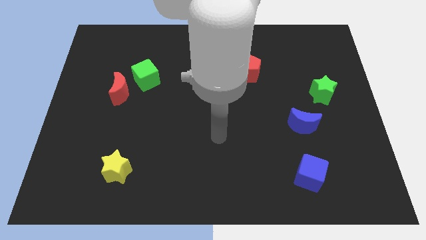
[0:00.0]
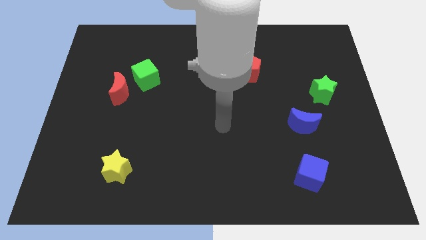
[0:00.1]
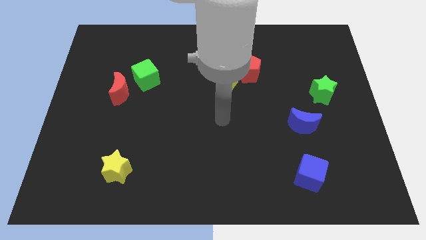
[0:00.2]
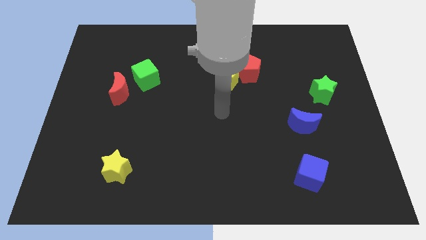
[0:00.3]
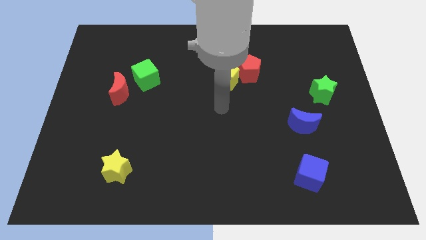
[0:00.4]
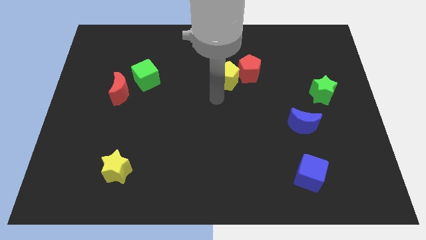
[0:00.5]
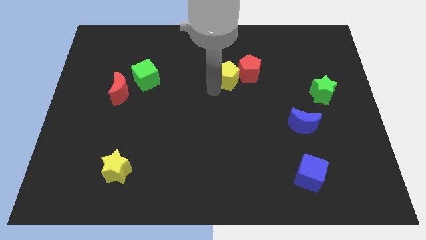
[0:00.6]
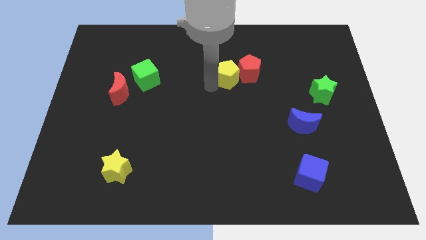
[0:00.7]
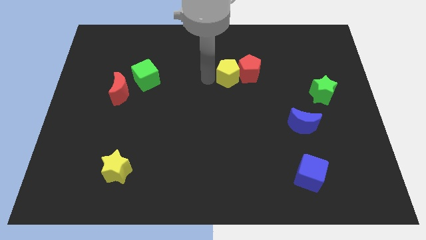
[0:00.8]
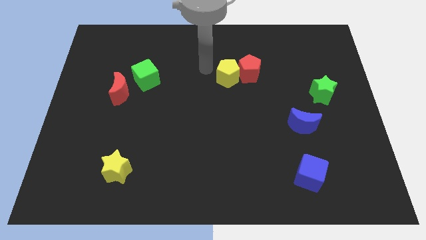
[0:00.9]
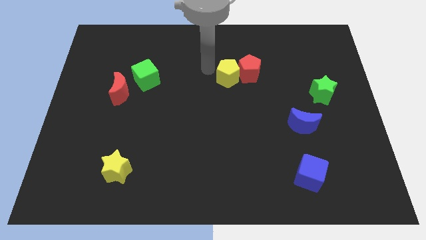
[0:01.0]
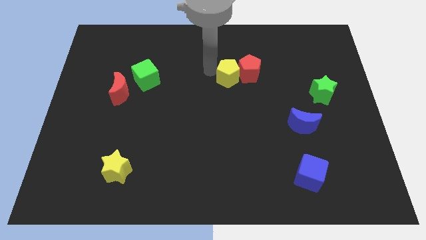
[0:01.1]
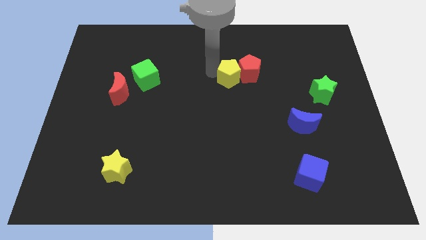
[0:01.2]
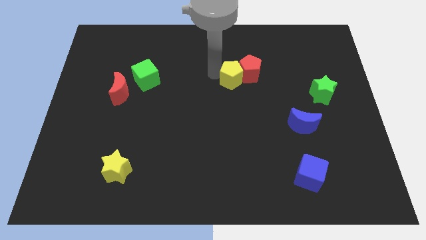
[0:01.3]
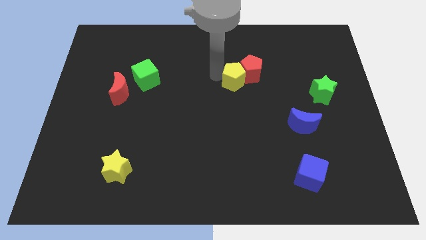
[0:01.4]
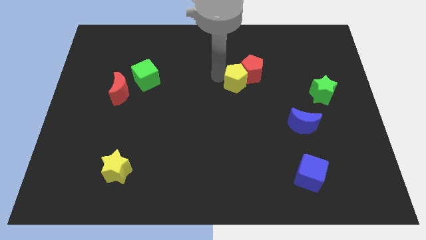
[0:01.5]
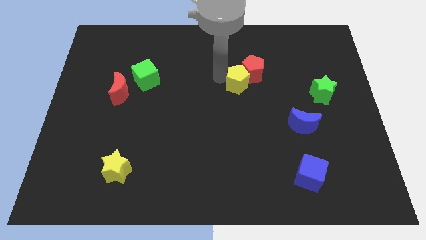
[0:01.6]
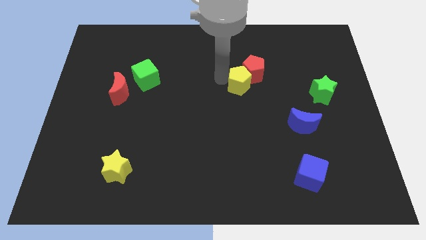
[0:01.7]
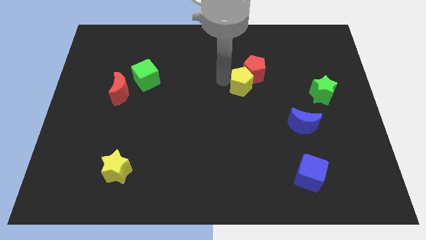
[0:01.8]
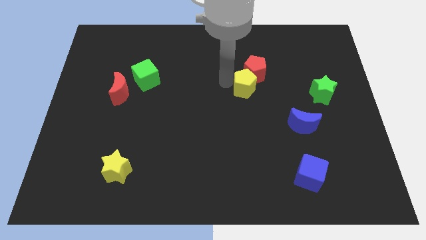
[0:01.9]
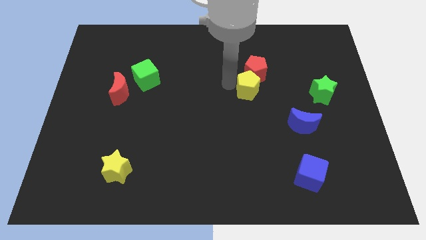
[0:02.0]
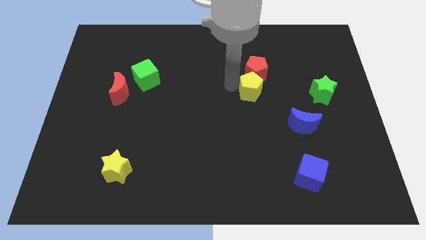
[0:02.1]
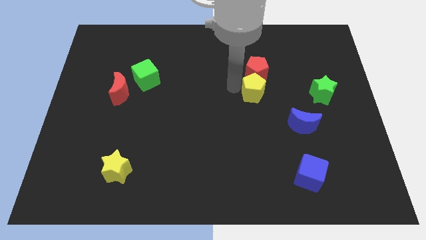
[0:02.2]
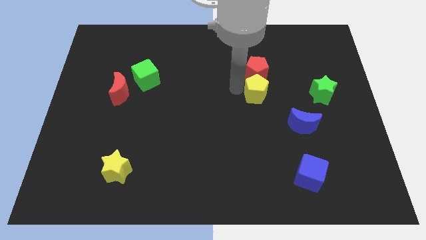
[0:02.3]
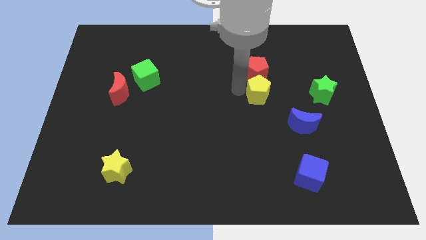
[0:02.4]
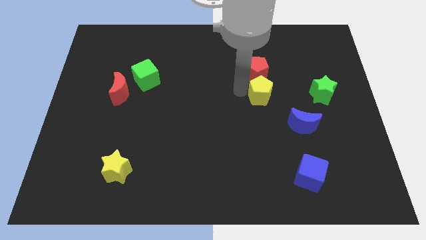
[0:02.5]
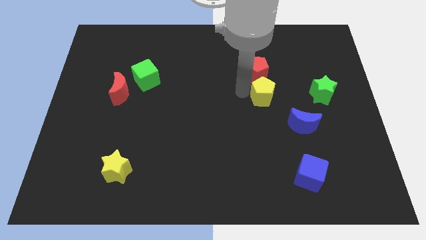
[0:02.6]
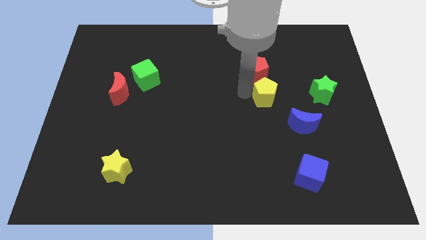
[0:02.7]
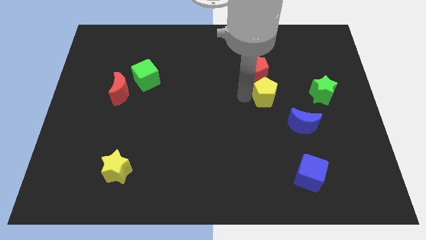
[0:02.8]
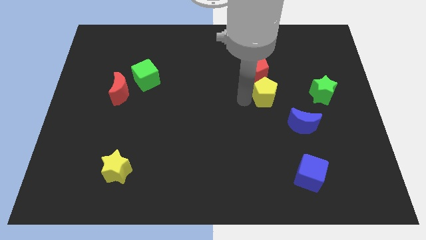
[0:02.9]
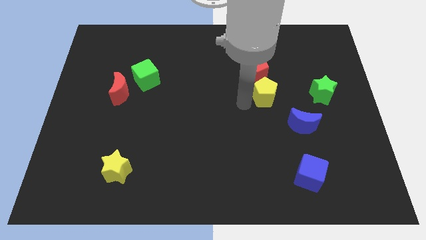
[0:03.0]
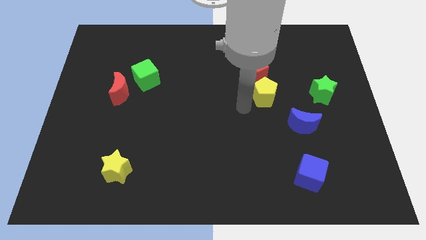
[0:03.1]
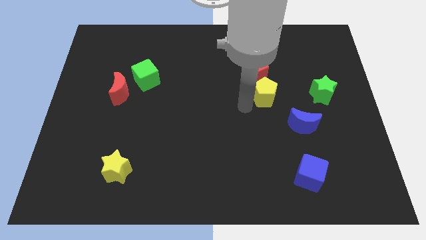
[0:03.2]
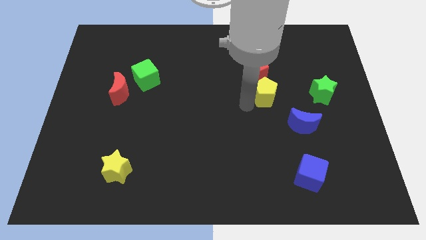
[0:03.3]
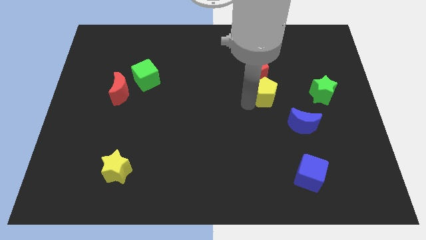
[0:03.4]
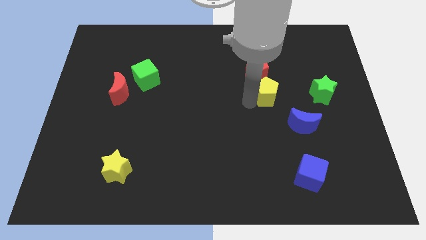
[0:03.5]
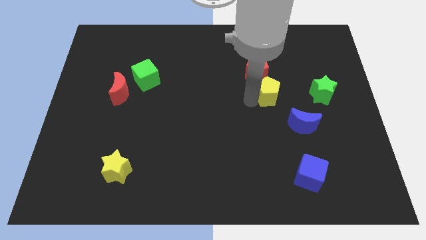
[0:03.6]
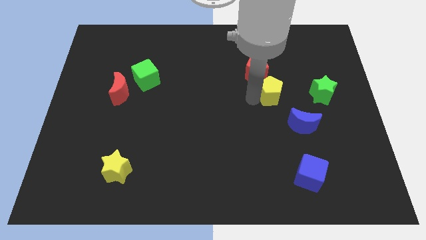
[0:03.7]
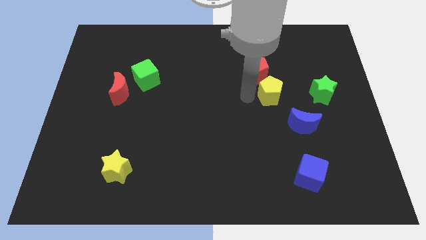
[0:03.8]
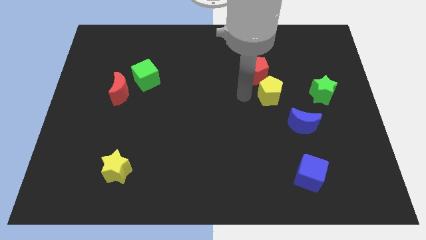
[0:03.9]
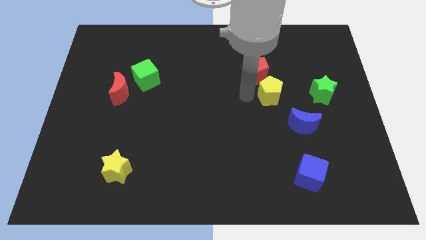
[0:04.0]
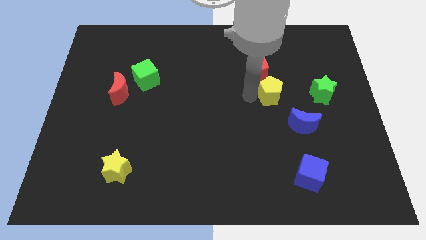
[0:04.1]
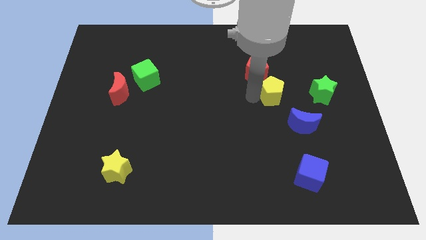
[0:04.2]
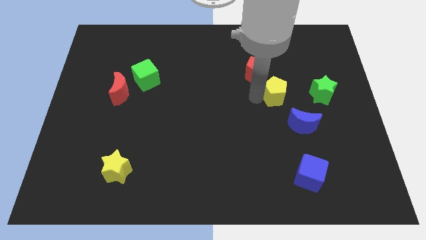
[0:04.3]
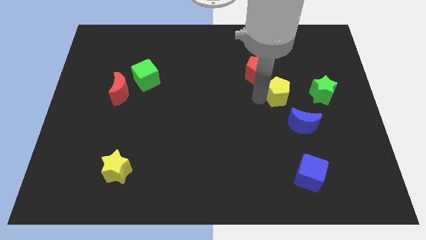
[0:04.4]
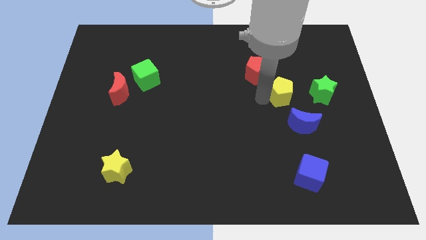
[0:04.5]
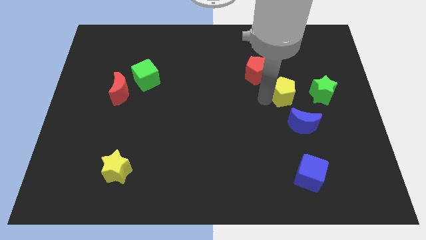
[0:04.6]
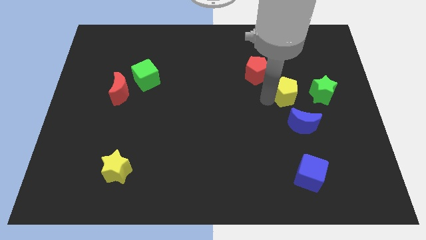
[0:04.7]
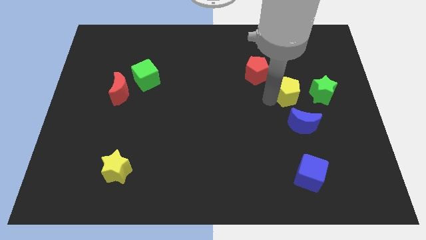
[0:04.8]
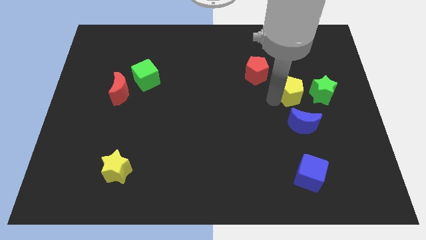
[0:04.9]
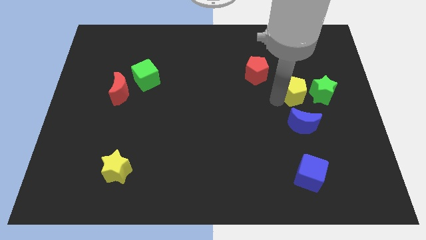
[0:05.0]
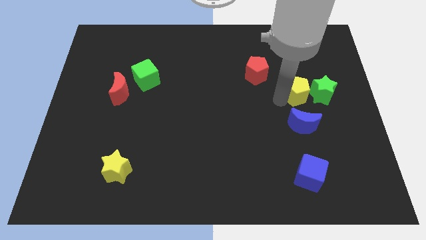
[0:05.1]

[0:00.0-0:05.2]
push the yellow pentagon to the green star

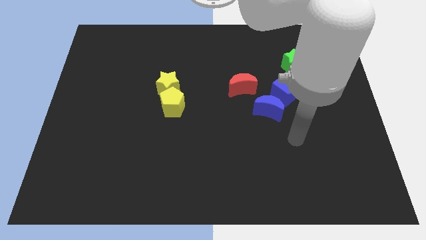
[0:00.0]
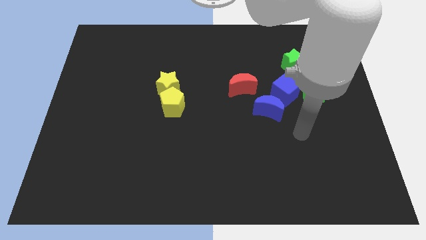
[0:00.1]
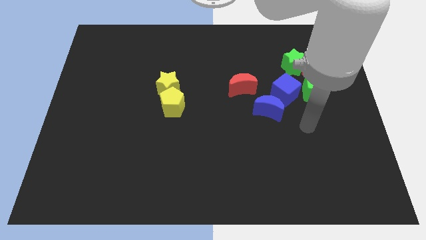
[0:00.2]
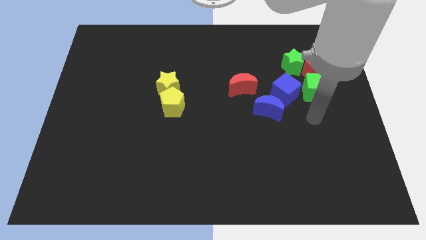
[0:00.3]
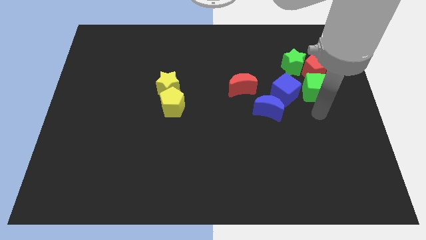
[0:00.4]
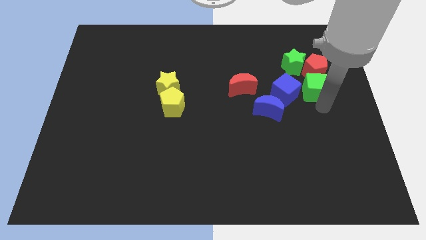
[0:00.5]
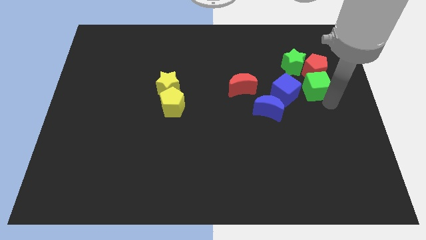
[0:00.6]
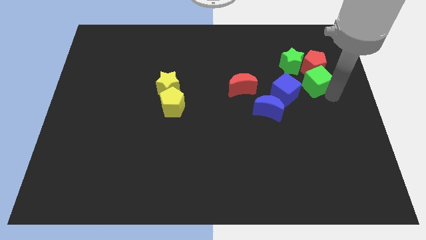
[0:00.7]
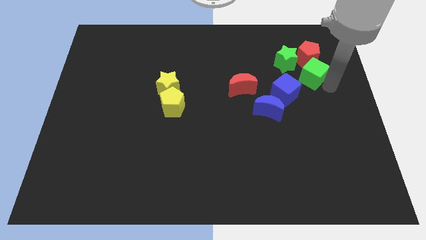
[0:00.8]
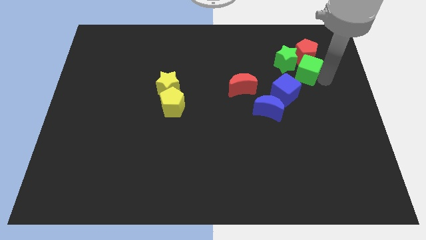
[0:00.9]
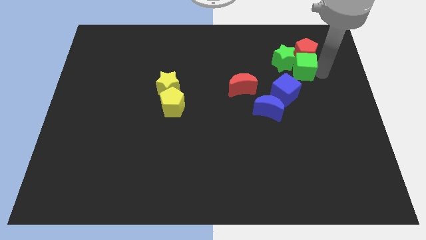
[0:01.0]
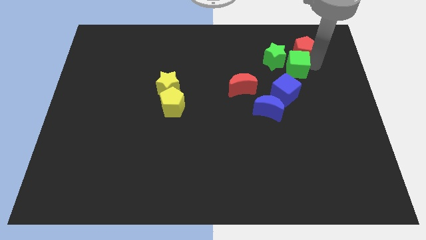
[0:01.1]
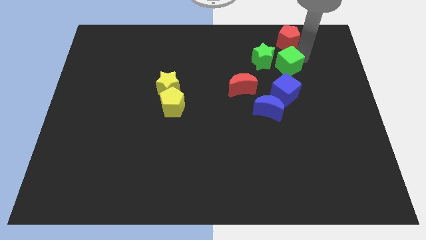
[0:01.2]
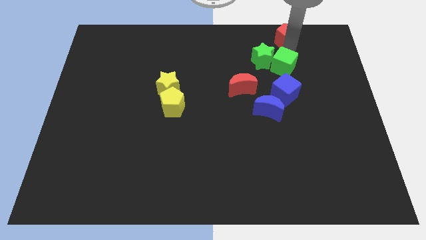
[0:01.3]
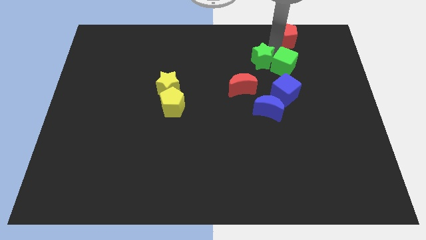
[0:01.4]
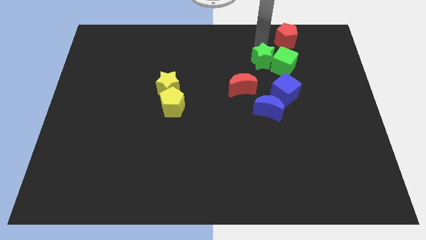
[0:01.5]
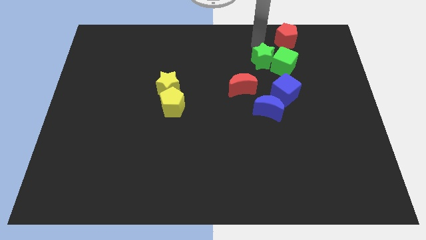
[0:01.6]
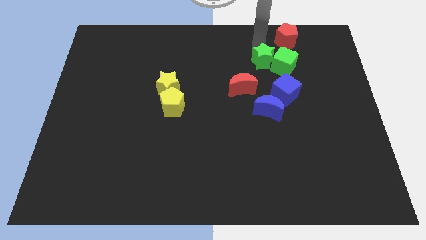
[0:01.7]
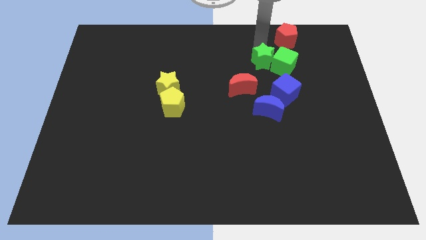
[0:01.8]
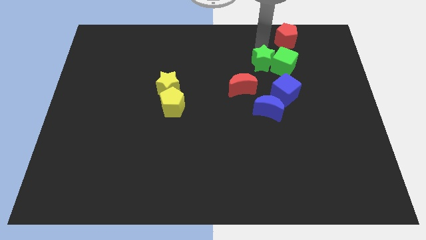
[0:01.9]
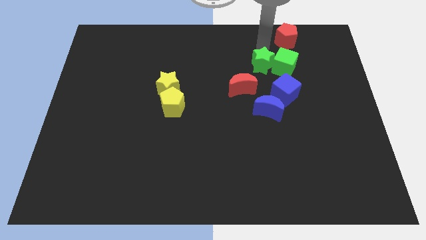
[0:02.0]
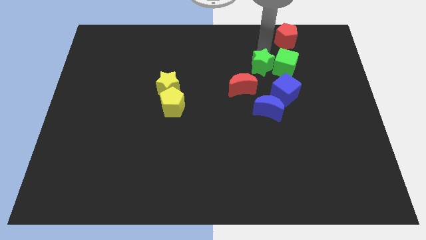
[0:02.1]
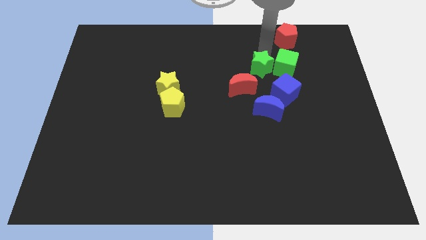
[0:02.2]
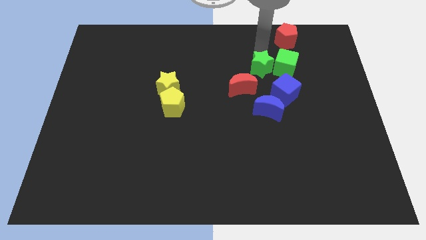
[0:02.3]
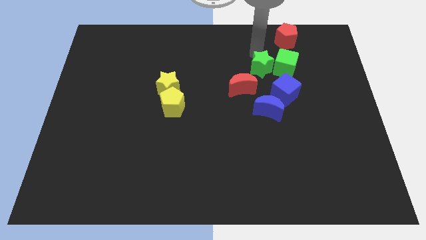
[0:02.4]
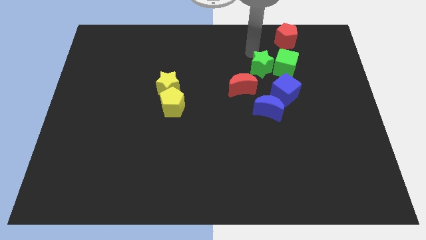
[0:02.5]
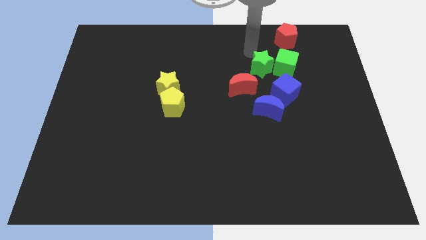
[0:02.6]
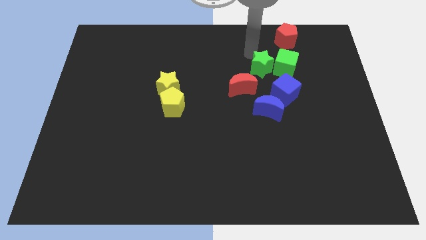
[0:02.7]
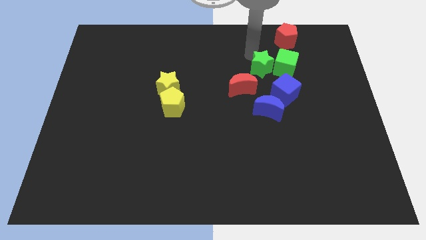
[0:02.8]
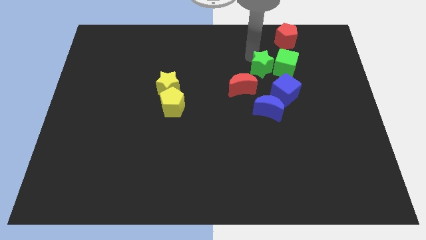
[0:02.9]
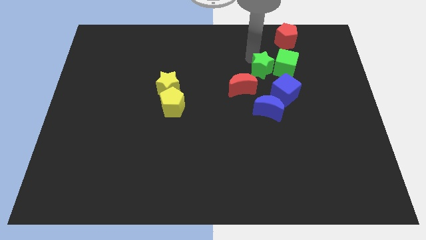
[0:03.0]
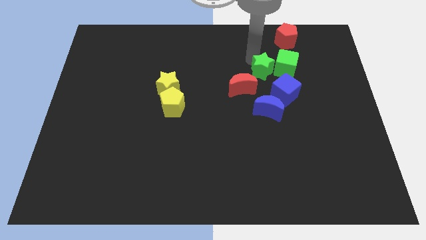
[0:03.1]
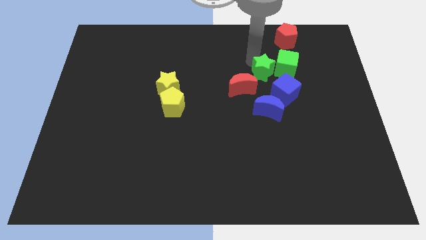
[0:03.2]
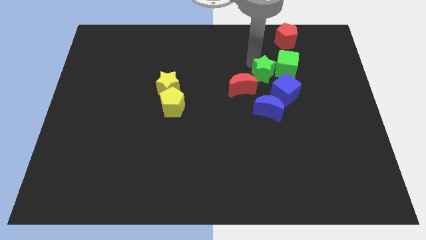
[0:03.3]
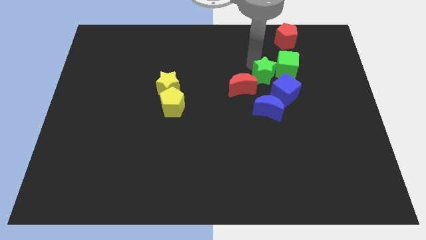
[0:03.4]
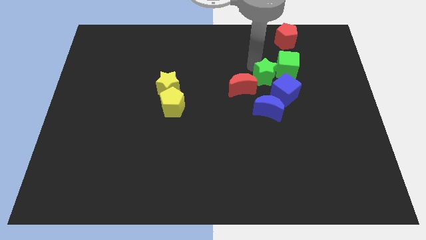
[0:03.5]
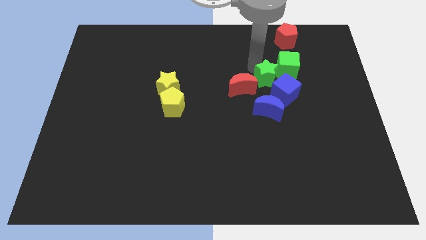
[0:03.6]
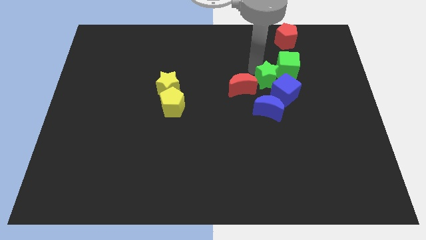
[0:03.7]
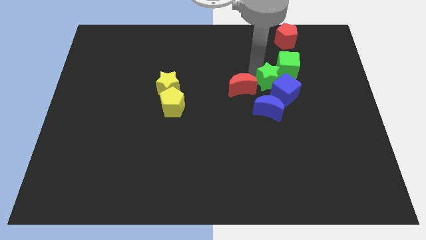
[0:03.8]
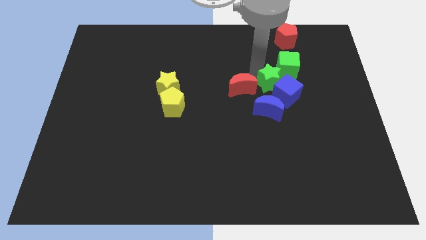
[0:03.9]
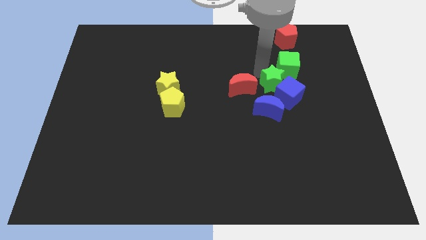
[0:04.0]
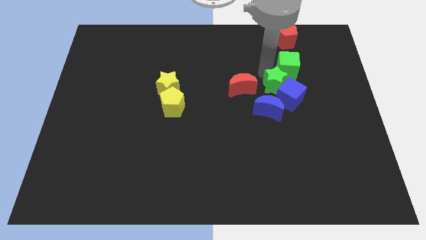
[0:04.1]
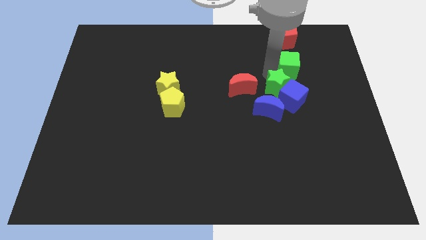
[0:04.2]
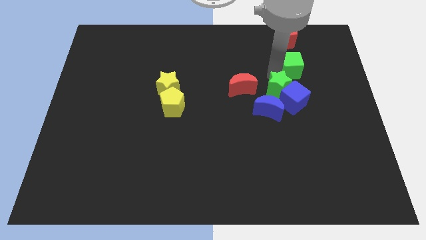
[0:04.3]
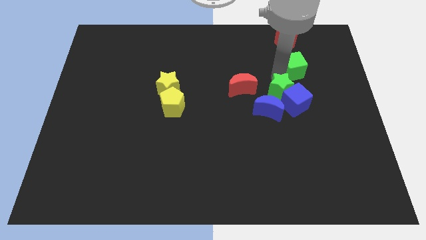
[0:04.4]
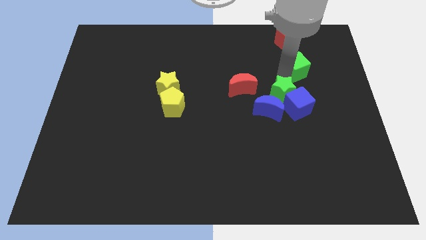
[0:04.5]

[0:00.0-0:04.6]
push the green star towards the blue moon
